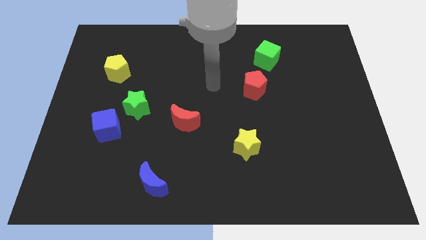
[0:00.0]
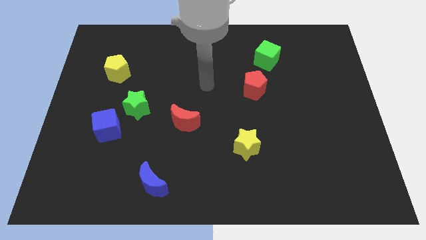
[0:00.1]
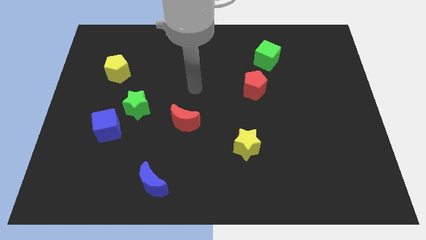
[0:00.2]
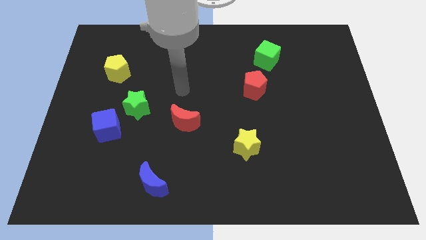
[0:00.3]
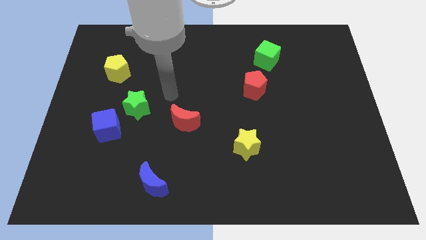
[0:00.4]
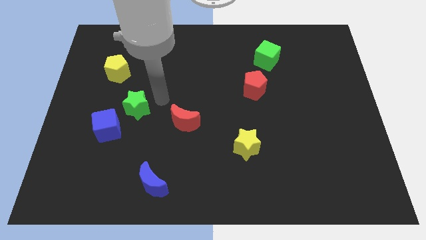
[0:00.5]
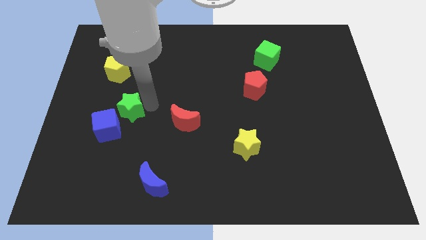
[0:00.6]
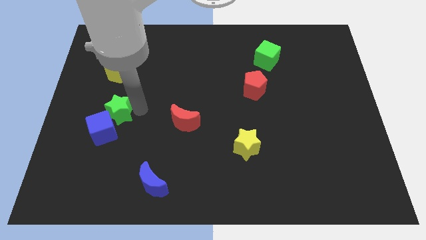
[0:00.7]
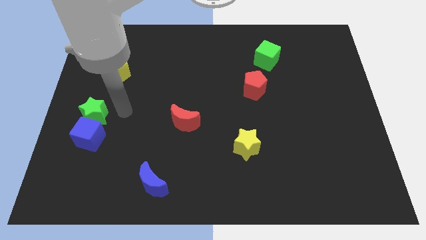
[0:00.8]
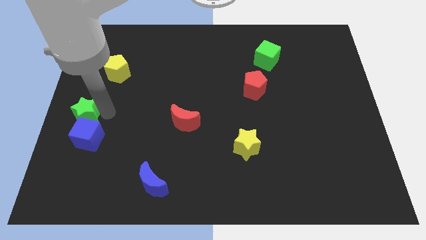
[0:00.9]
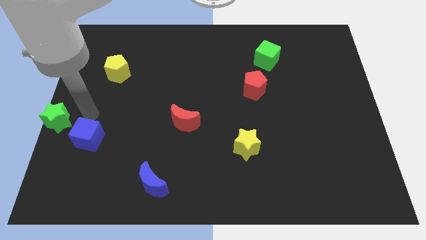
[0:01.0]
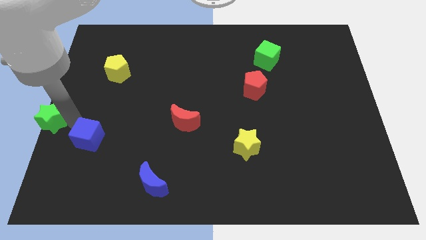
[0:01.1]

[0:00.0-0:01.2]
separate the blue cube from the green star

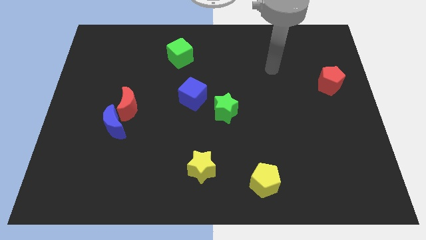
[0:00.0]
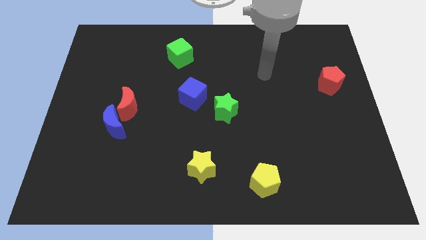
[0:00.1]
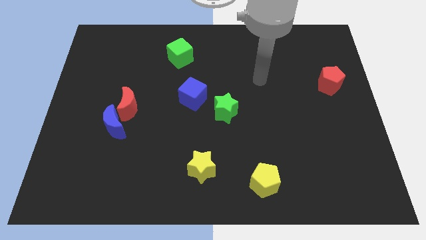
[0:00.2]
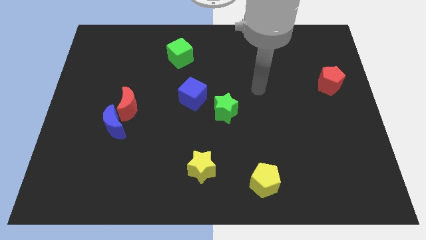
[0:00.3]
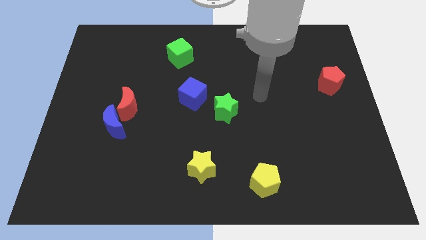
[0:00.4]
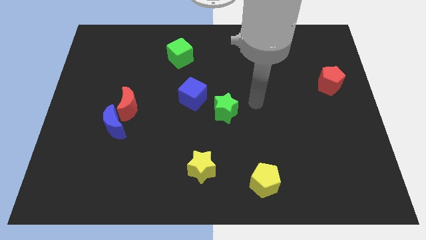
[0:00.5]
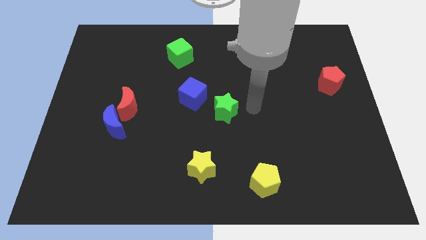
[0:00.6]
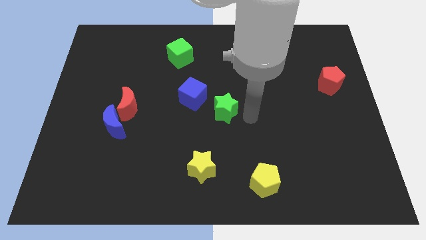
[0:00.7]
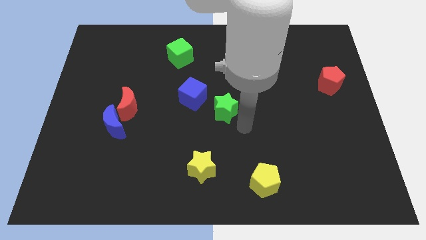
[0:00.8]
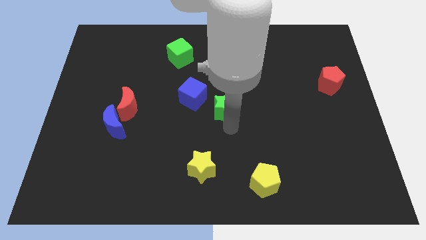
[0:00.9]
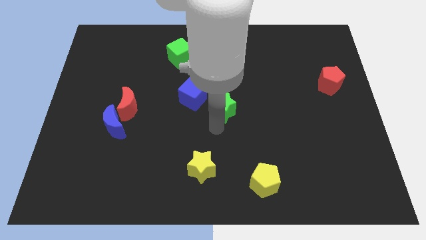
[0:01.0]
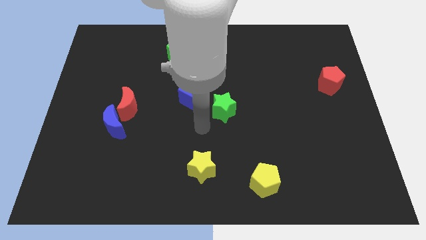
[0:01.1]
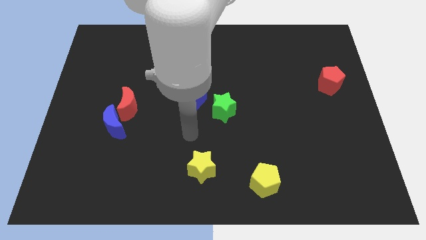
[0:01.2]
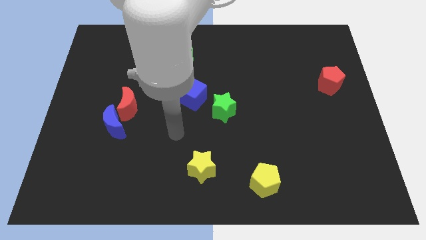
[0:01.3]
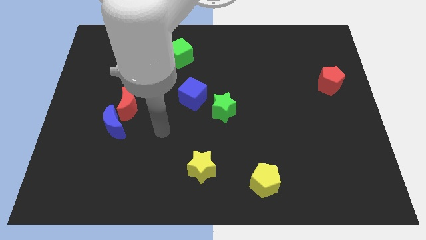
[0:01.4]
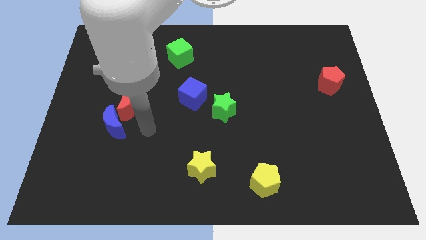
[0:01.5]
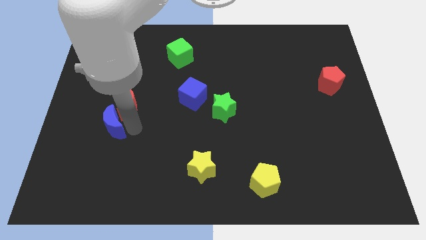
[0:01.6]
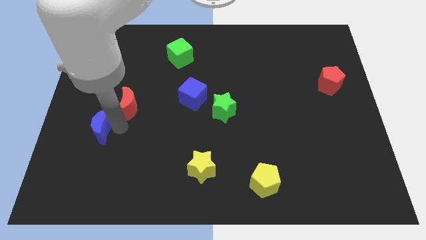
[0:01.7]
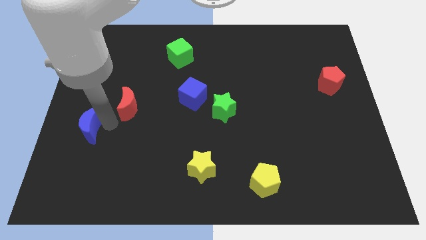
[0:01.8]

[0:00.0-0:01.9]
move the red moon away from the blue moon

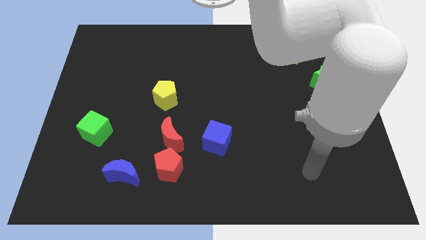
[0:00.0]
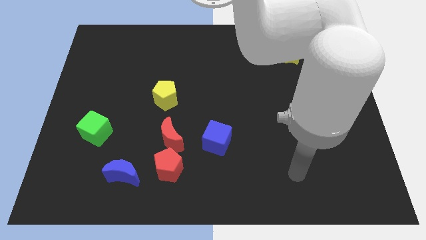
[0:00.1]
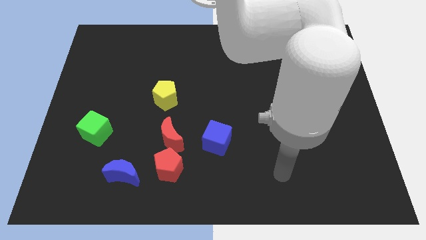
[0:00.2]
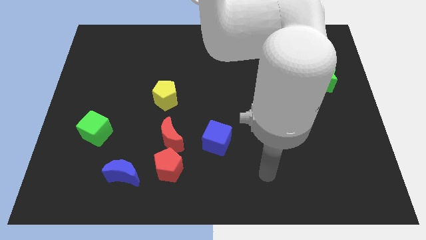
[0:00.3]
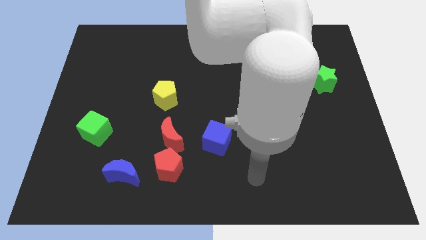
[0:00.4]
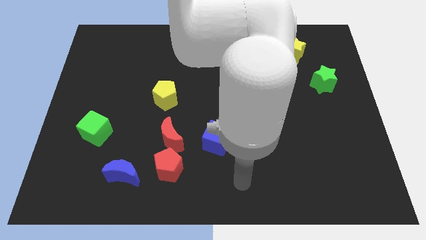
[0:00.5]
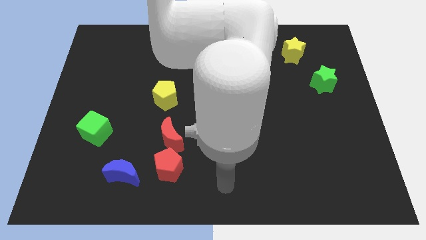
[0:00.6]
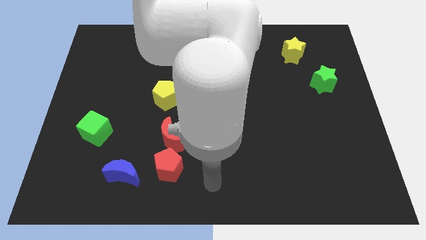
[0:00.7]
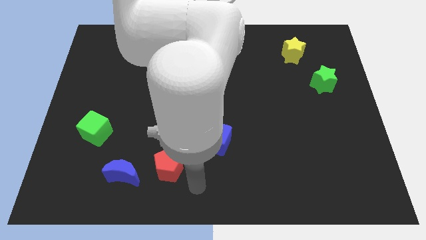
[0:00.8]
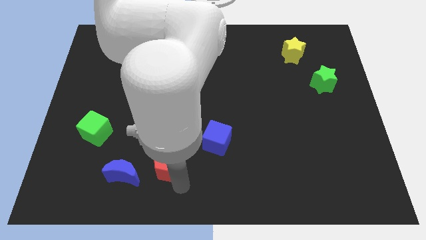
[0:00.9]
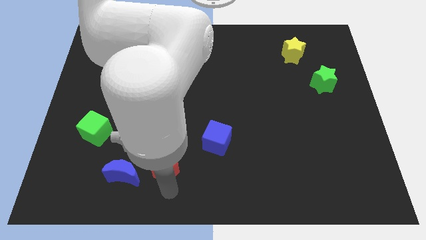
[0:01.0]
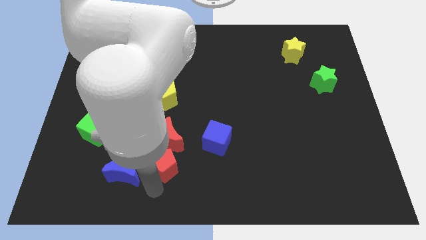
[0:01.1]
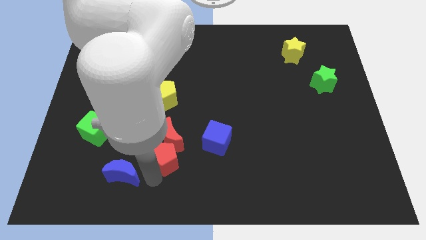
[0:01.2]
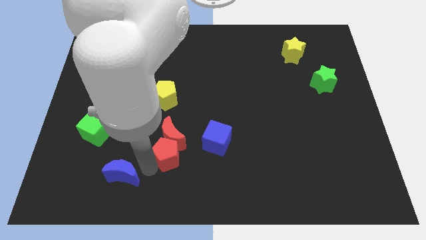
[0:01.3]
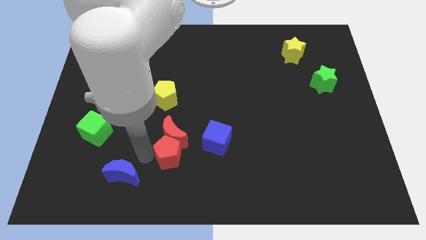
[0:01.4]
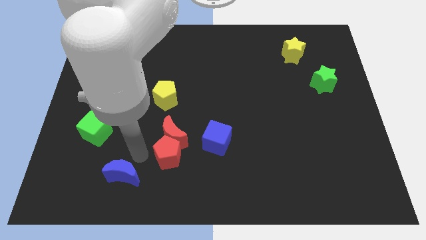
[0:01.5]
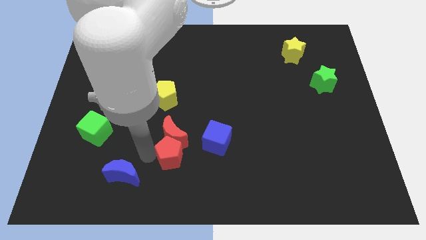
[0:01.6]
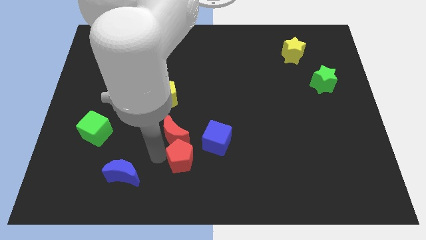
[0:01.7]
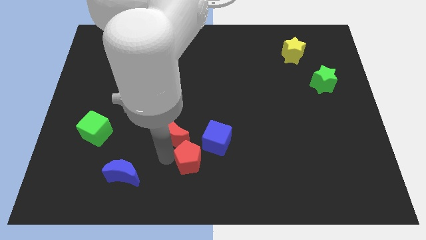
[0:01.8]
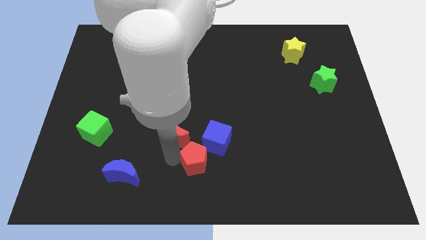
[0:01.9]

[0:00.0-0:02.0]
pull the red pentagon apart from the red moon and blue moon

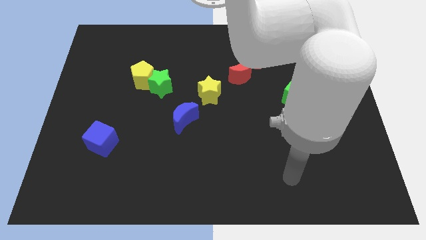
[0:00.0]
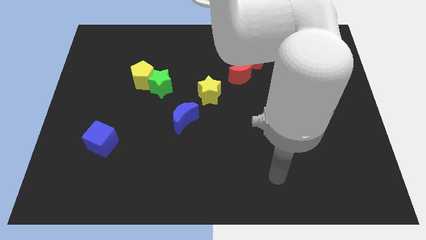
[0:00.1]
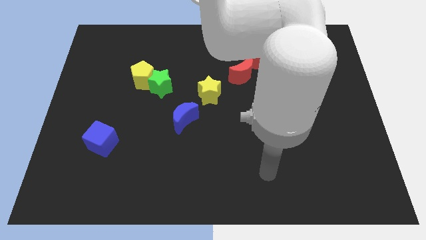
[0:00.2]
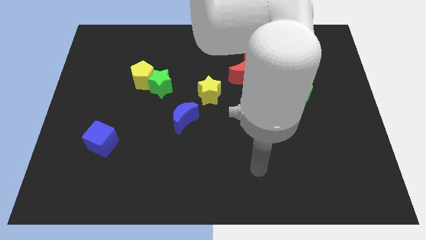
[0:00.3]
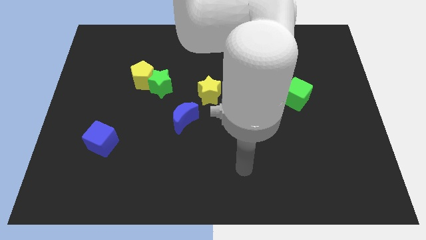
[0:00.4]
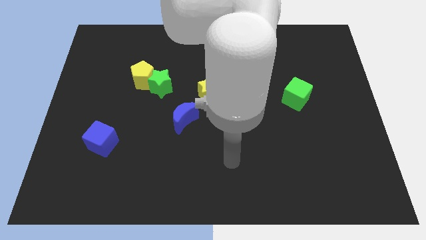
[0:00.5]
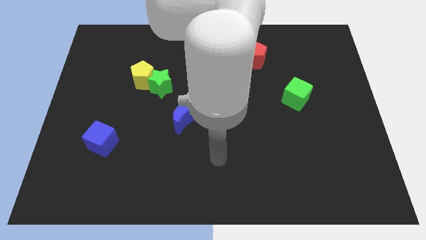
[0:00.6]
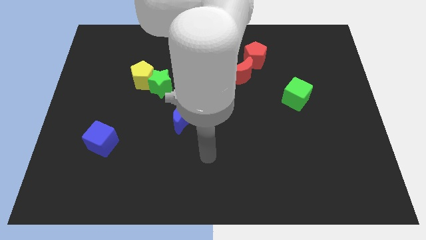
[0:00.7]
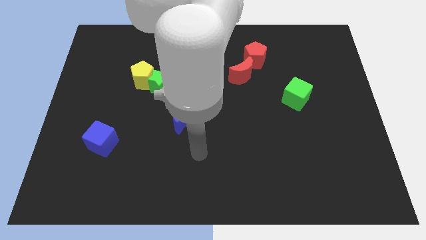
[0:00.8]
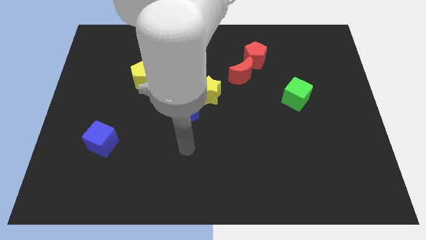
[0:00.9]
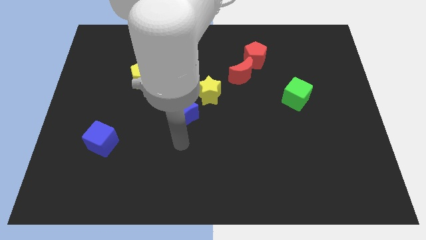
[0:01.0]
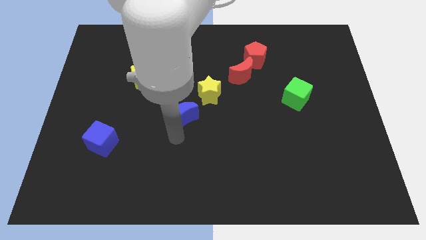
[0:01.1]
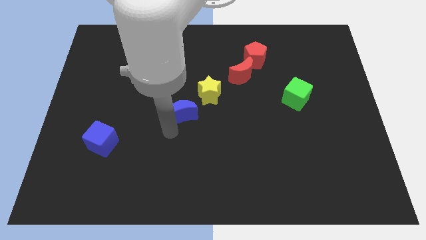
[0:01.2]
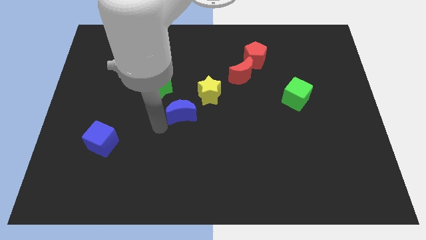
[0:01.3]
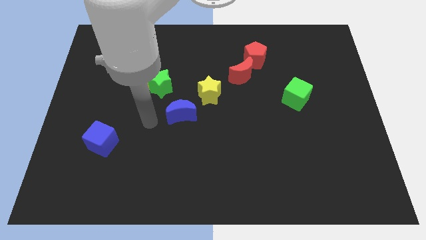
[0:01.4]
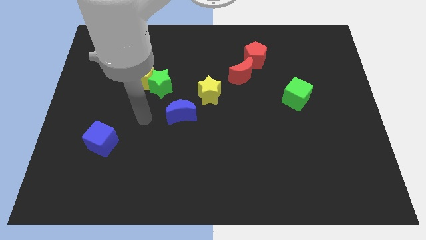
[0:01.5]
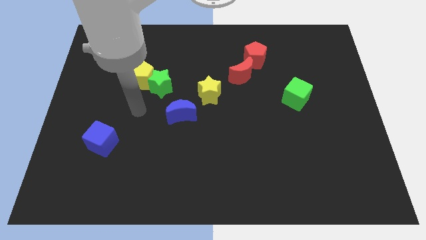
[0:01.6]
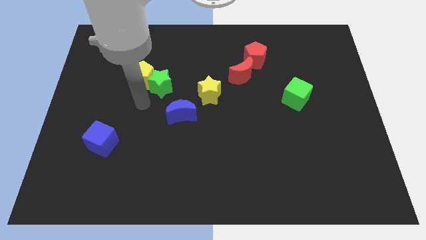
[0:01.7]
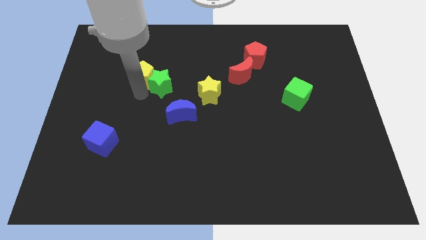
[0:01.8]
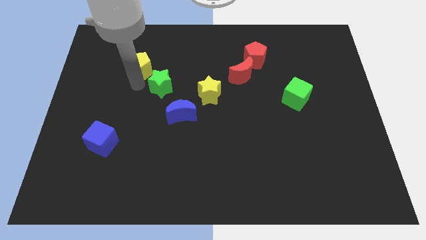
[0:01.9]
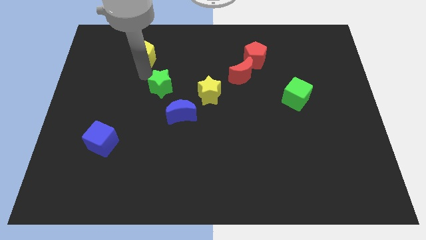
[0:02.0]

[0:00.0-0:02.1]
move the green star away from the yellow pentagon

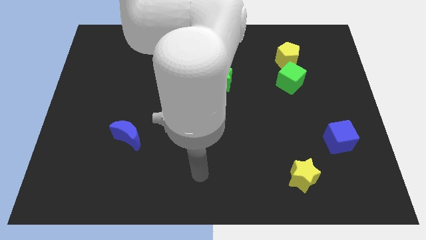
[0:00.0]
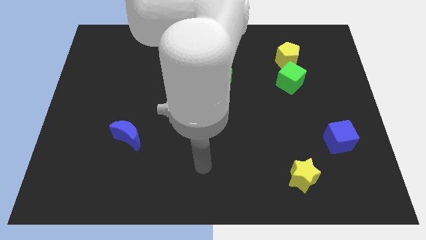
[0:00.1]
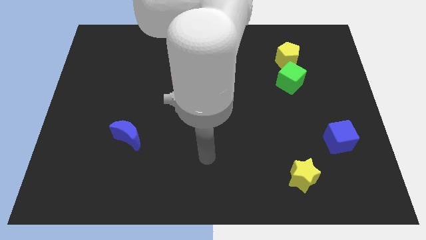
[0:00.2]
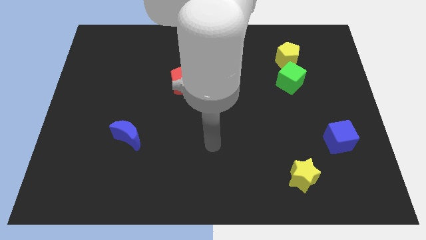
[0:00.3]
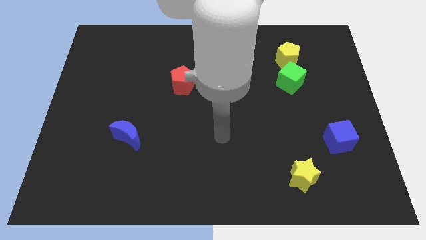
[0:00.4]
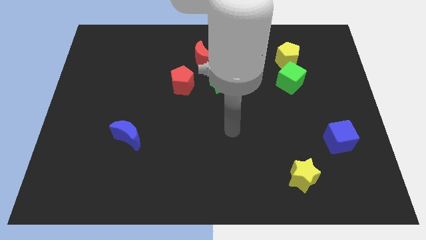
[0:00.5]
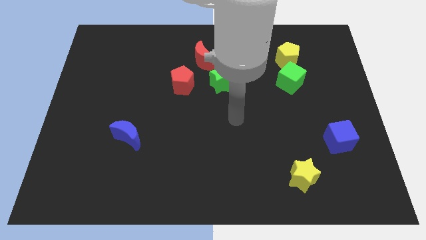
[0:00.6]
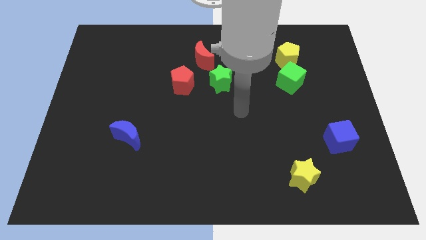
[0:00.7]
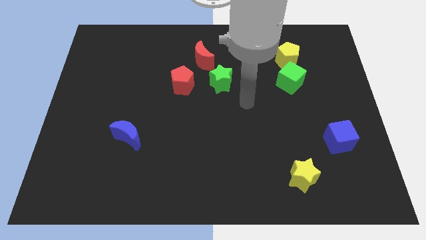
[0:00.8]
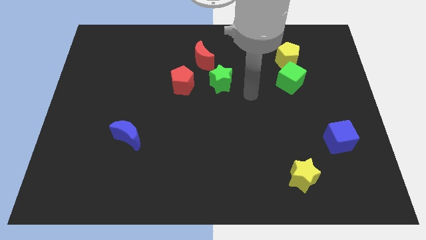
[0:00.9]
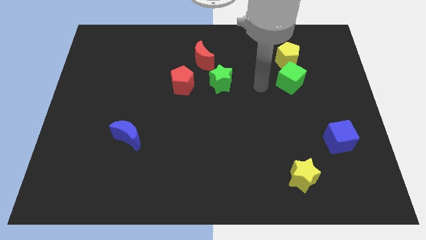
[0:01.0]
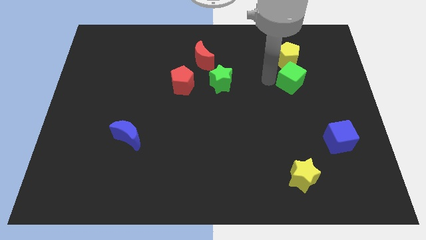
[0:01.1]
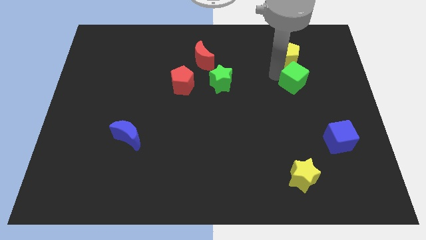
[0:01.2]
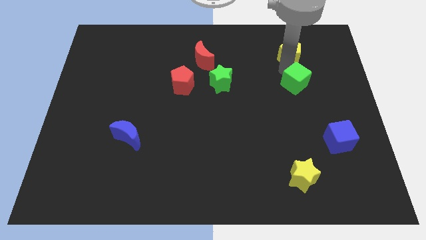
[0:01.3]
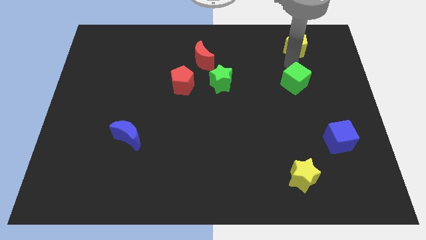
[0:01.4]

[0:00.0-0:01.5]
move the green cube away from the yellow pentagon

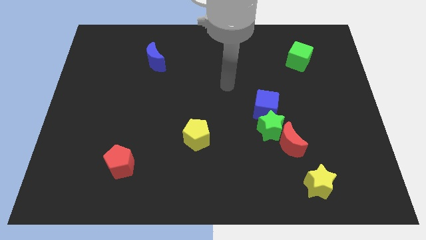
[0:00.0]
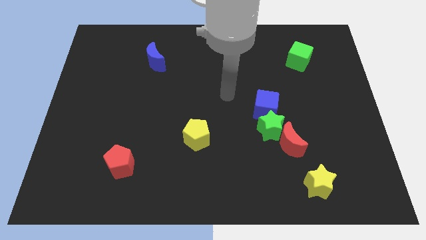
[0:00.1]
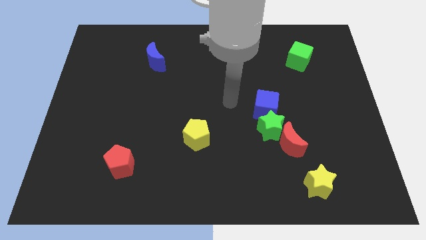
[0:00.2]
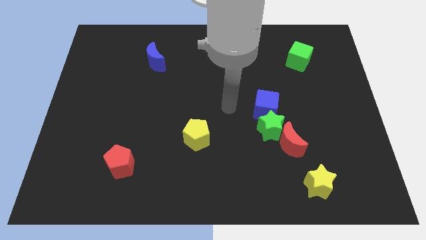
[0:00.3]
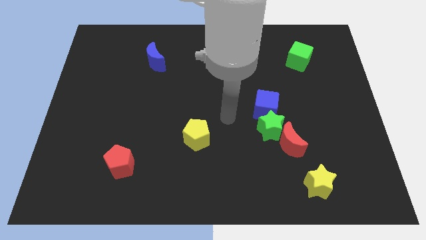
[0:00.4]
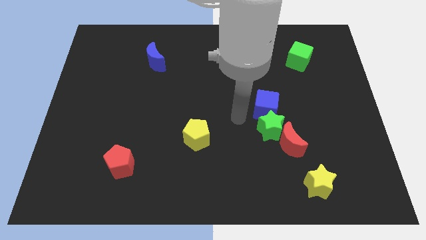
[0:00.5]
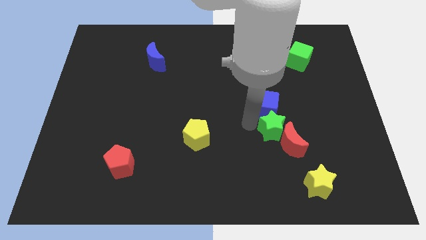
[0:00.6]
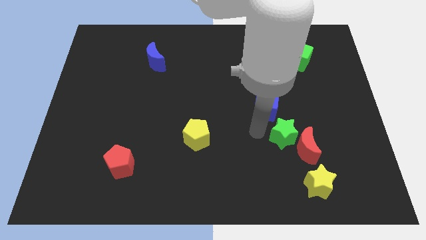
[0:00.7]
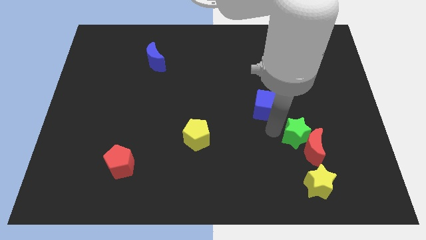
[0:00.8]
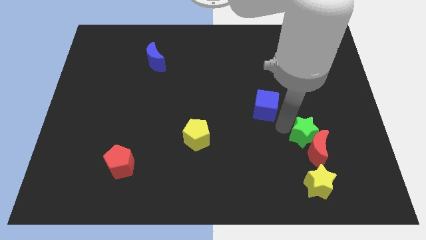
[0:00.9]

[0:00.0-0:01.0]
move the blue cube away from the green star
